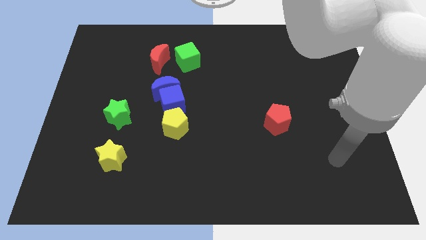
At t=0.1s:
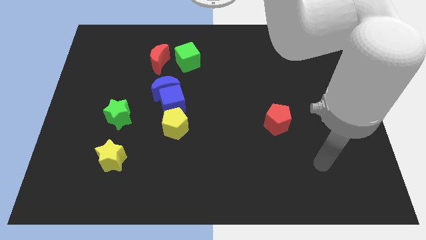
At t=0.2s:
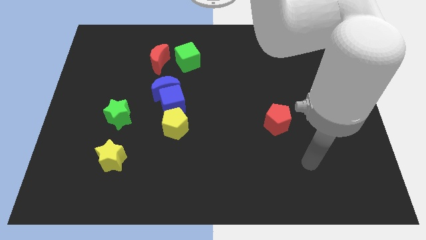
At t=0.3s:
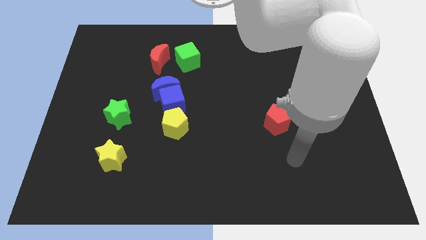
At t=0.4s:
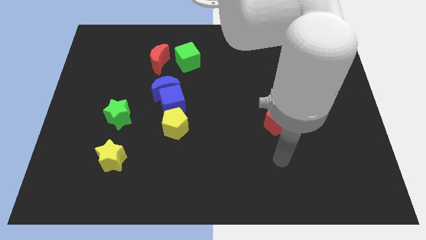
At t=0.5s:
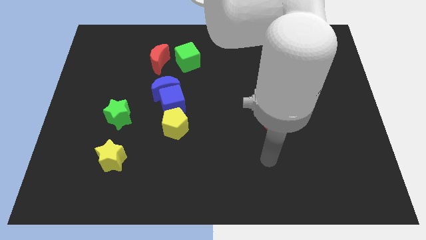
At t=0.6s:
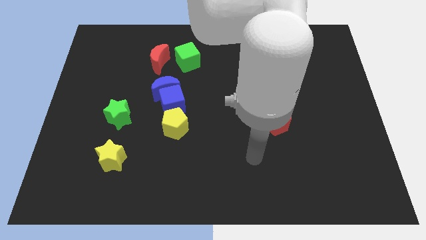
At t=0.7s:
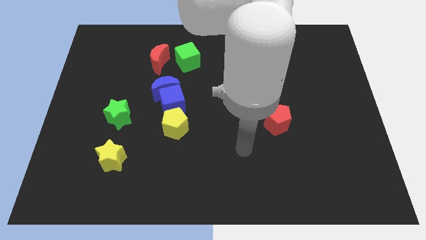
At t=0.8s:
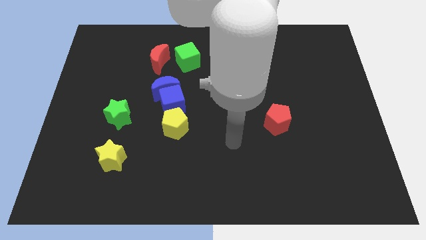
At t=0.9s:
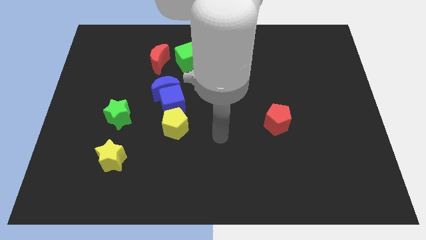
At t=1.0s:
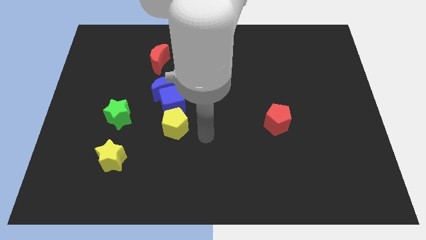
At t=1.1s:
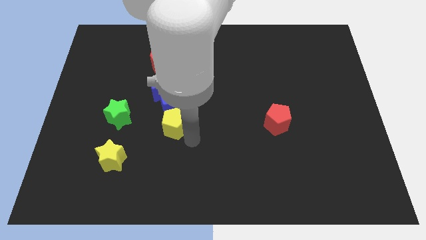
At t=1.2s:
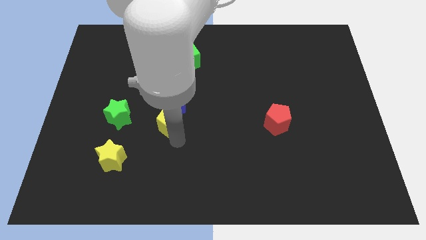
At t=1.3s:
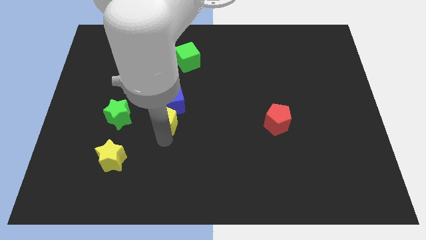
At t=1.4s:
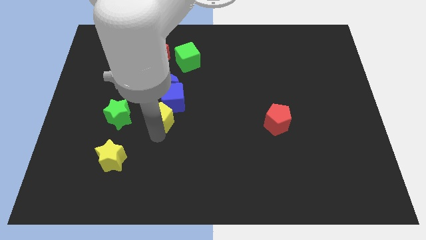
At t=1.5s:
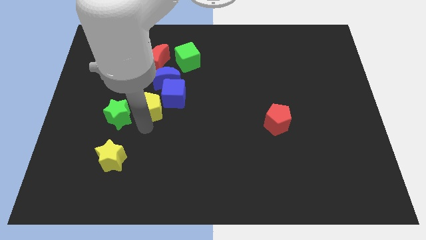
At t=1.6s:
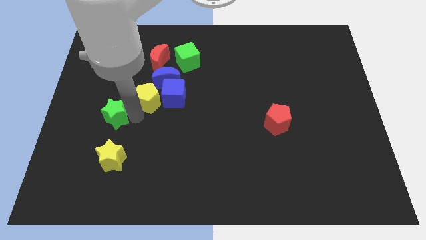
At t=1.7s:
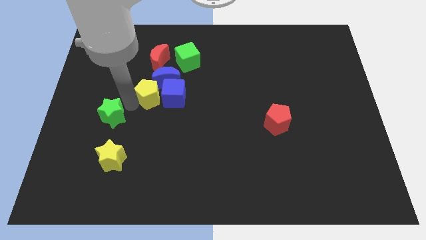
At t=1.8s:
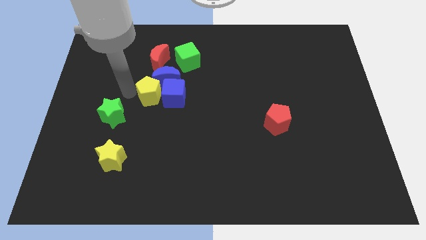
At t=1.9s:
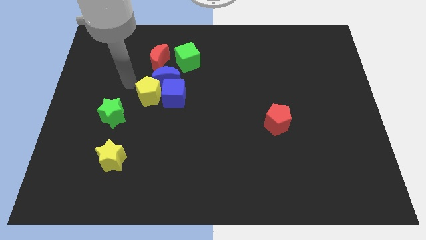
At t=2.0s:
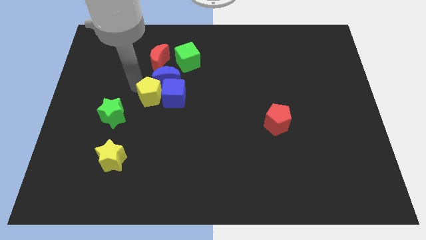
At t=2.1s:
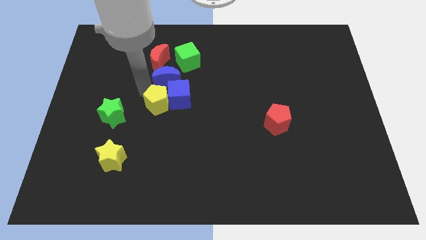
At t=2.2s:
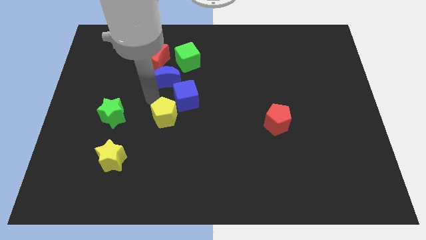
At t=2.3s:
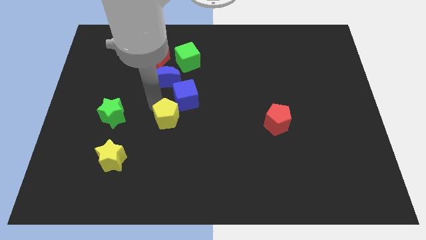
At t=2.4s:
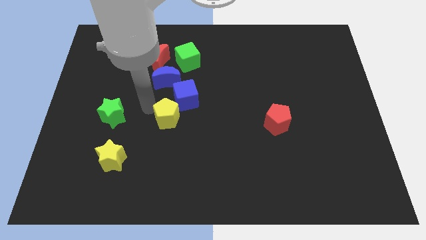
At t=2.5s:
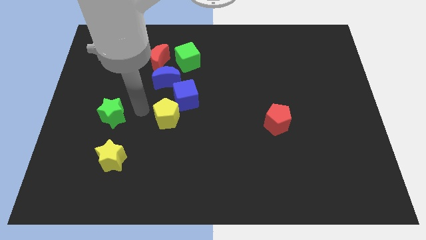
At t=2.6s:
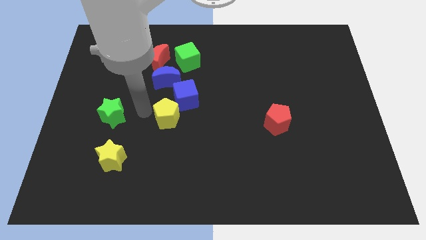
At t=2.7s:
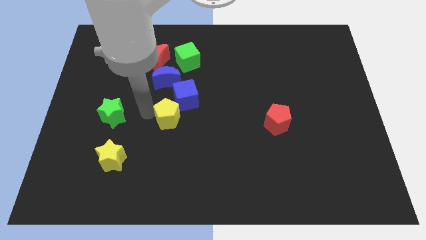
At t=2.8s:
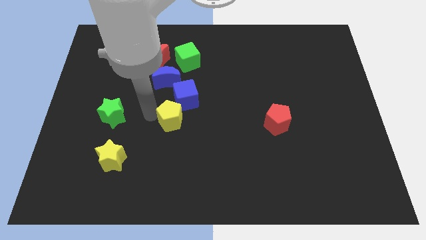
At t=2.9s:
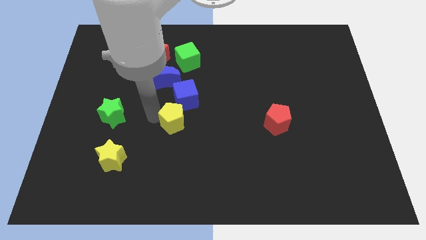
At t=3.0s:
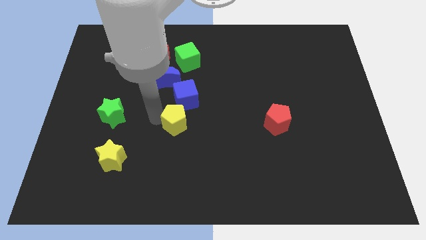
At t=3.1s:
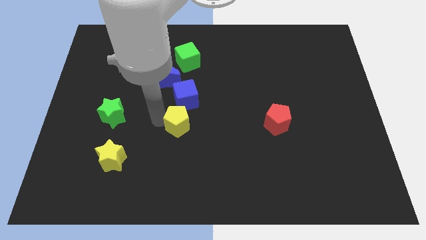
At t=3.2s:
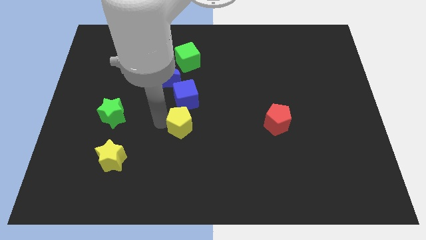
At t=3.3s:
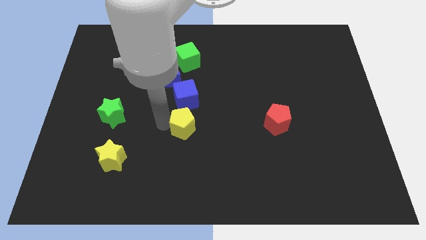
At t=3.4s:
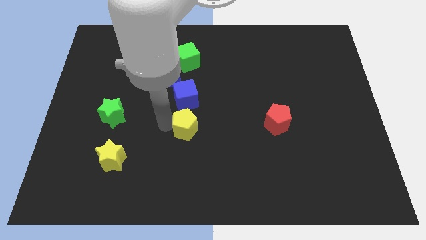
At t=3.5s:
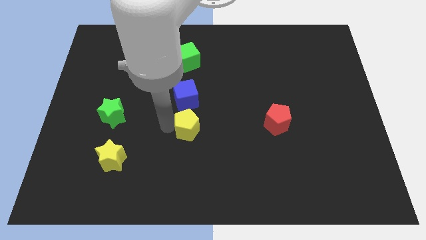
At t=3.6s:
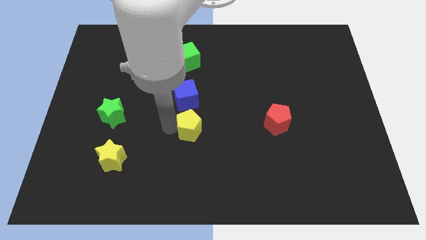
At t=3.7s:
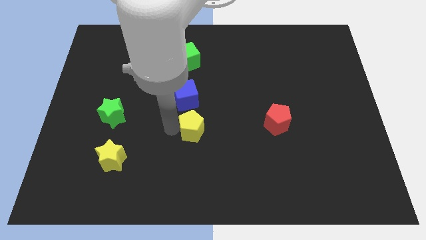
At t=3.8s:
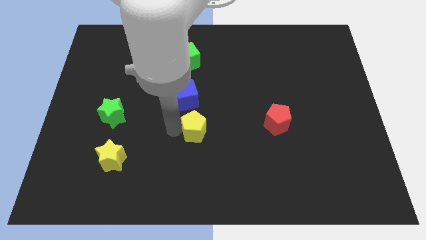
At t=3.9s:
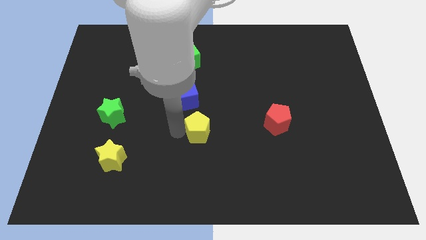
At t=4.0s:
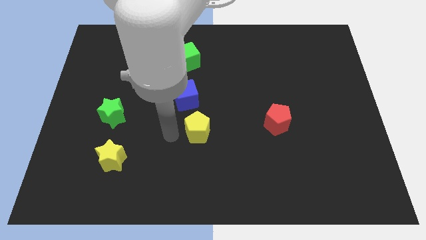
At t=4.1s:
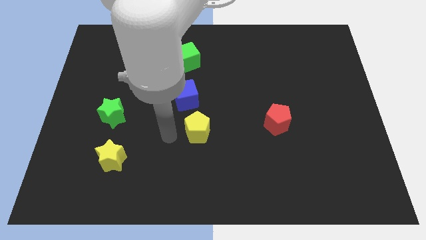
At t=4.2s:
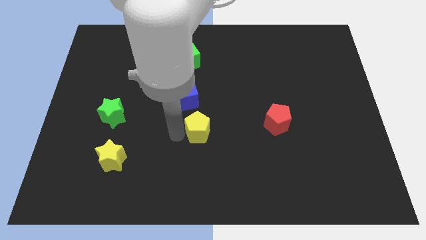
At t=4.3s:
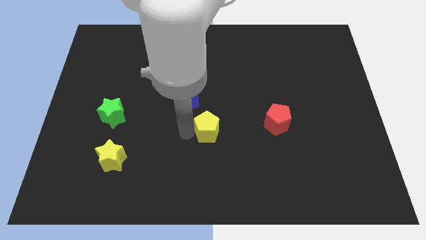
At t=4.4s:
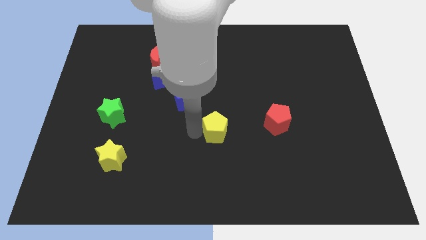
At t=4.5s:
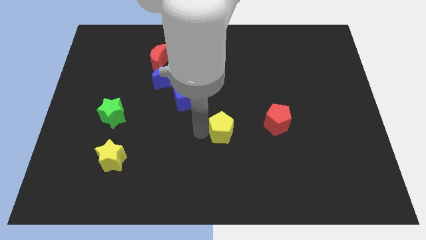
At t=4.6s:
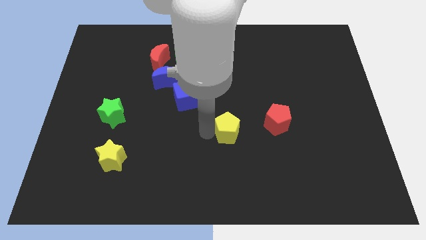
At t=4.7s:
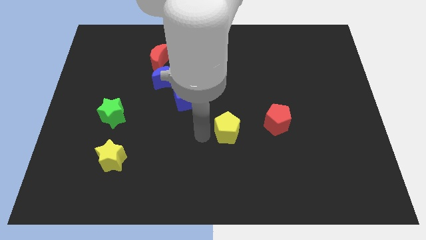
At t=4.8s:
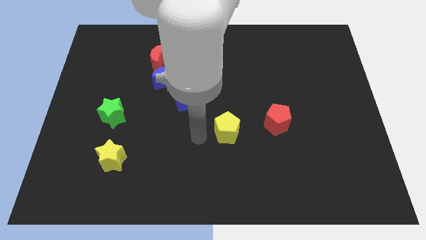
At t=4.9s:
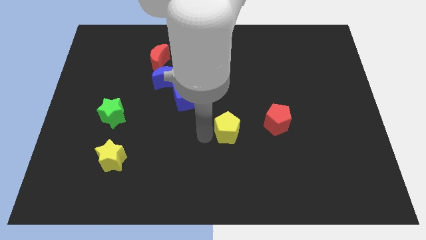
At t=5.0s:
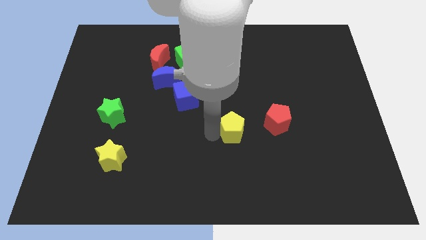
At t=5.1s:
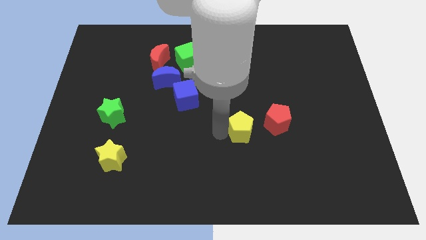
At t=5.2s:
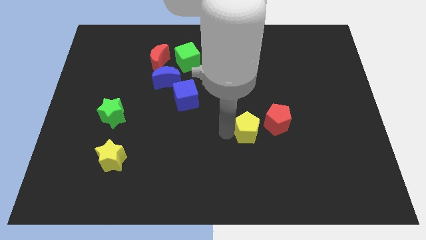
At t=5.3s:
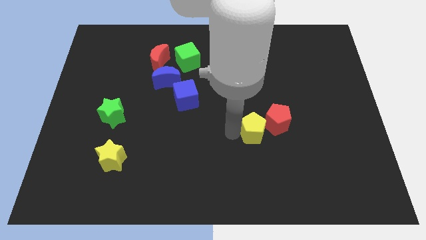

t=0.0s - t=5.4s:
move the yellow pentagon next to the red pentagon

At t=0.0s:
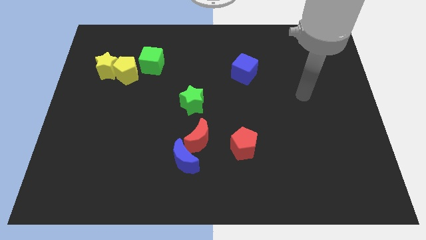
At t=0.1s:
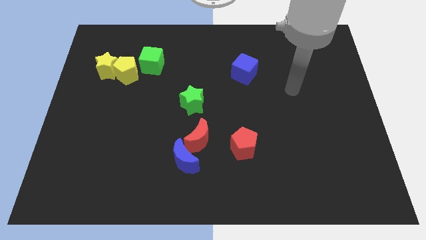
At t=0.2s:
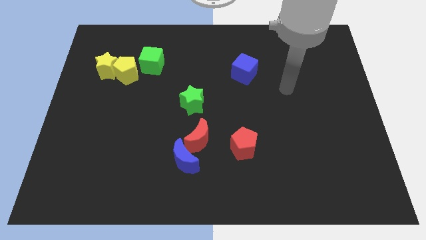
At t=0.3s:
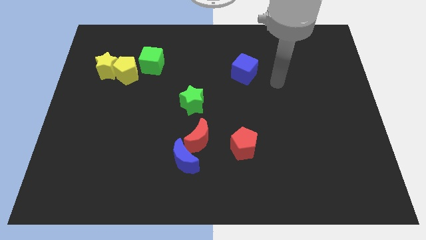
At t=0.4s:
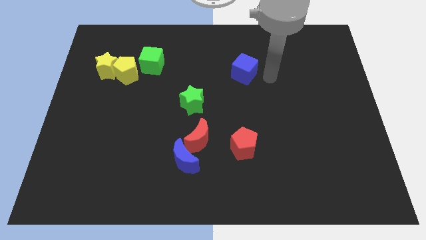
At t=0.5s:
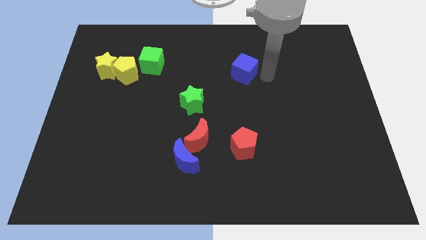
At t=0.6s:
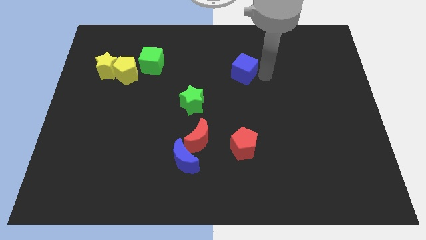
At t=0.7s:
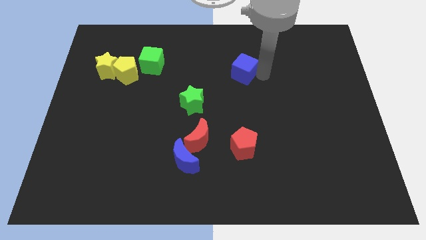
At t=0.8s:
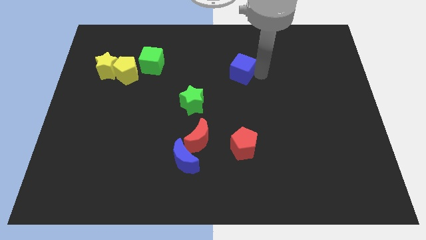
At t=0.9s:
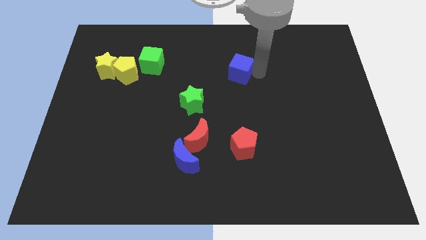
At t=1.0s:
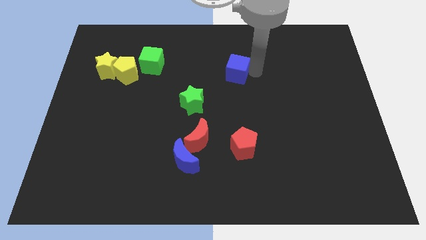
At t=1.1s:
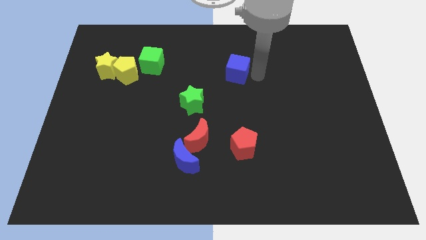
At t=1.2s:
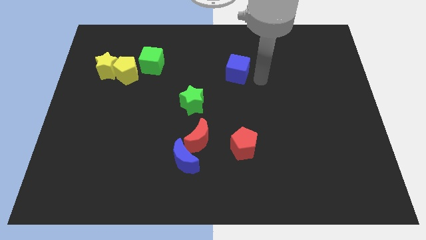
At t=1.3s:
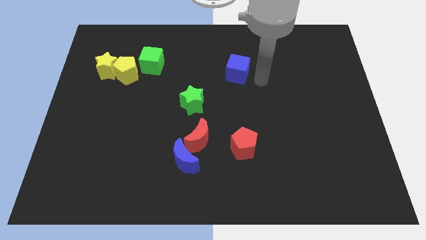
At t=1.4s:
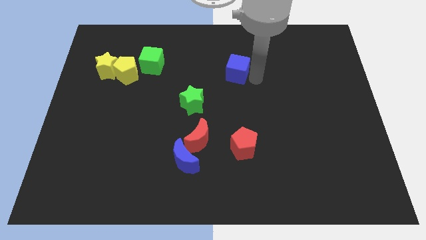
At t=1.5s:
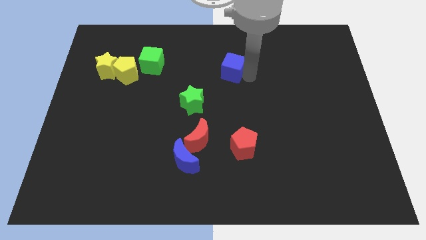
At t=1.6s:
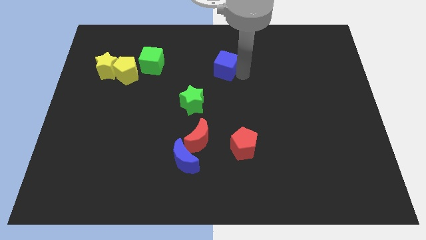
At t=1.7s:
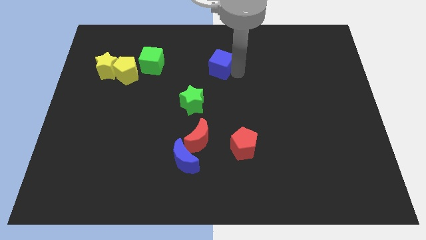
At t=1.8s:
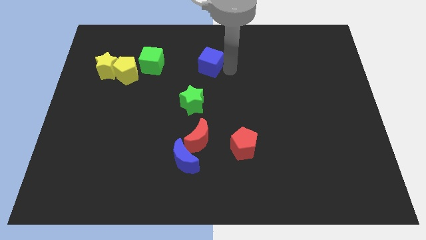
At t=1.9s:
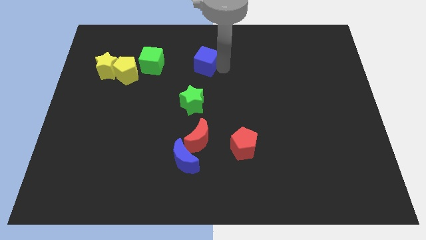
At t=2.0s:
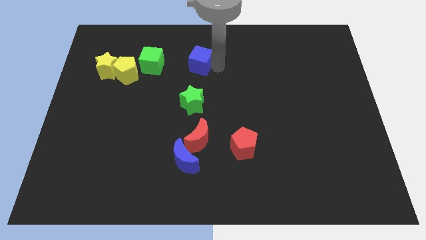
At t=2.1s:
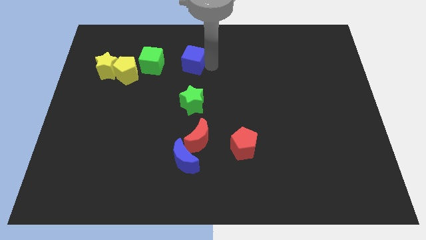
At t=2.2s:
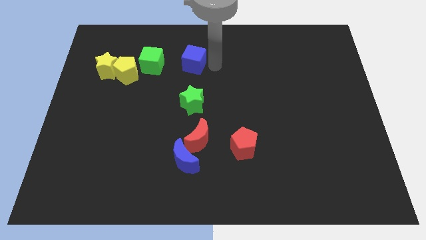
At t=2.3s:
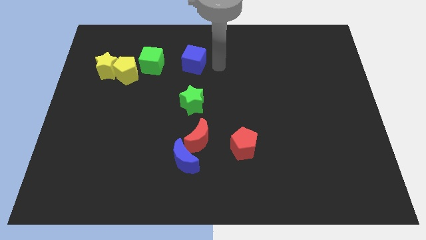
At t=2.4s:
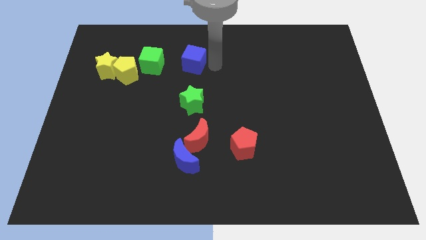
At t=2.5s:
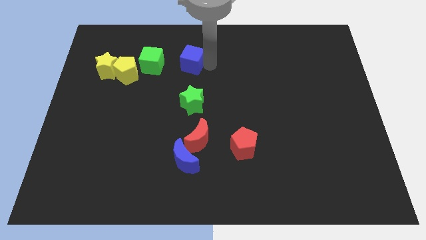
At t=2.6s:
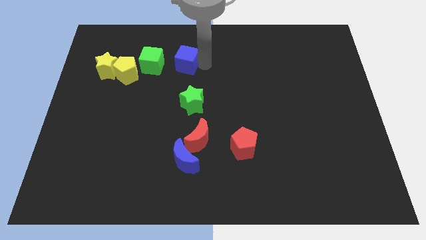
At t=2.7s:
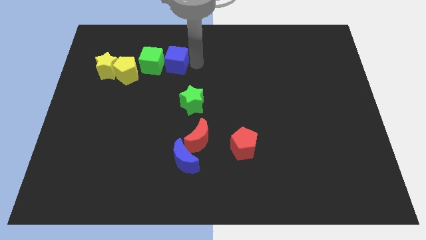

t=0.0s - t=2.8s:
slide the blue cube close to the green cube
